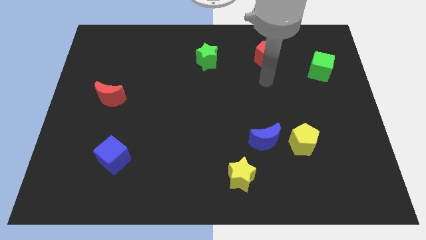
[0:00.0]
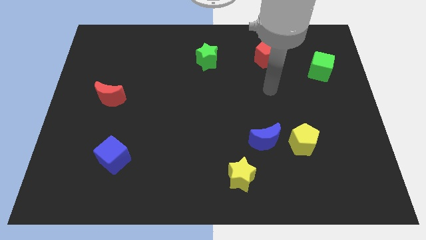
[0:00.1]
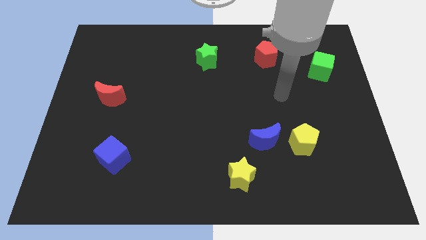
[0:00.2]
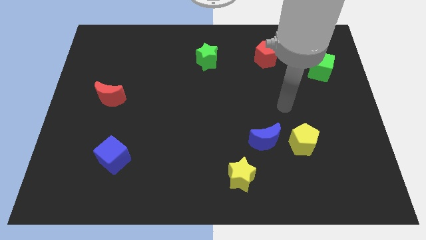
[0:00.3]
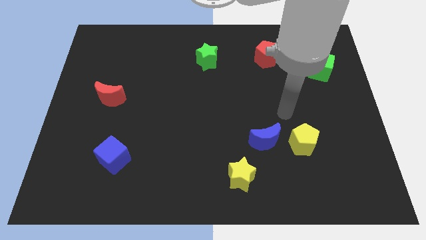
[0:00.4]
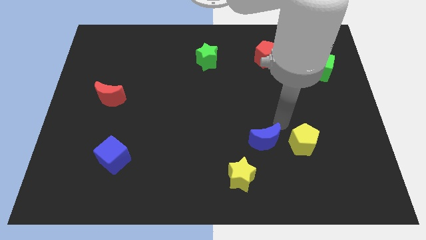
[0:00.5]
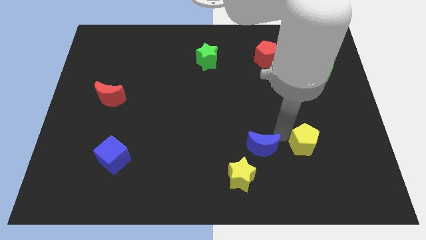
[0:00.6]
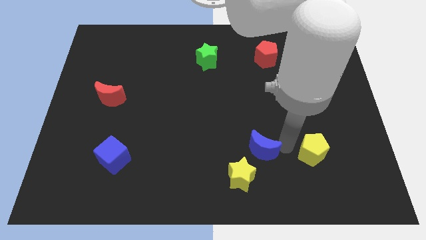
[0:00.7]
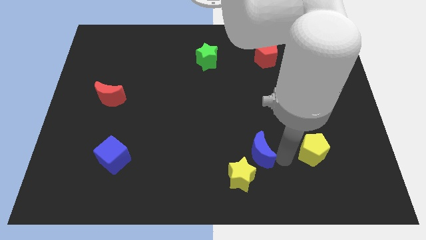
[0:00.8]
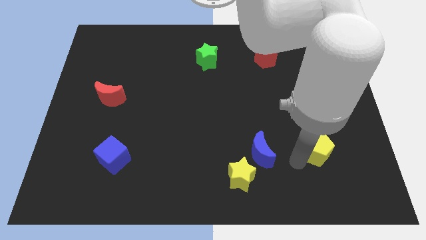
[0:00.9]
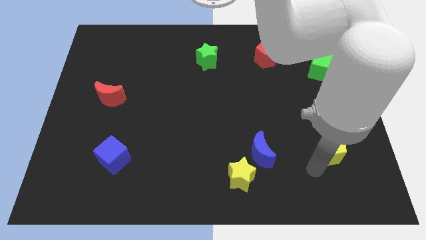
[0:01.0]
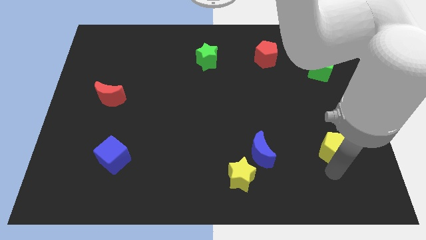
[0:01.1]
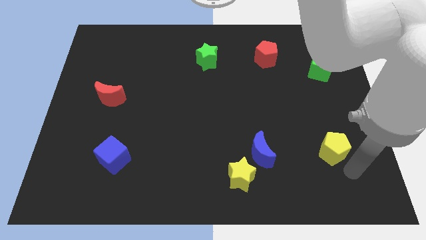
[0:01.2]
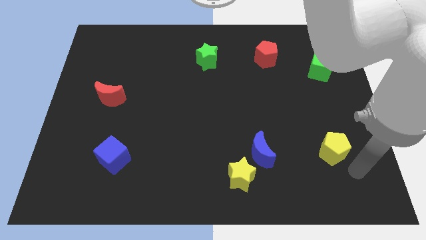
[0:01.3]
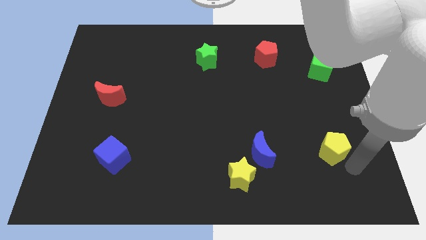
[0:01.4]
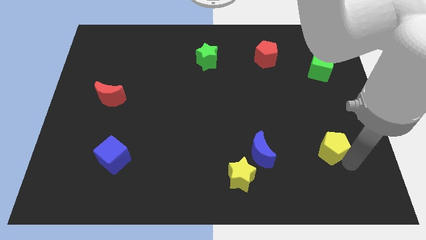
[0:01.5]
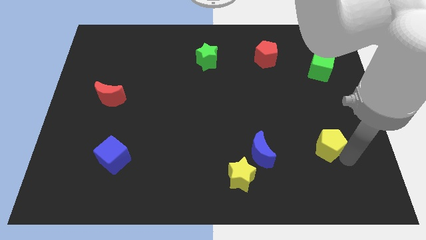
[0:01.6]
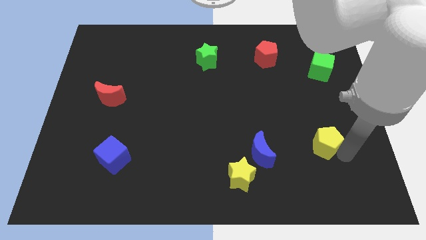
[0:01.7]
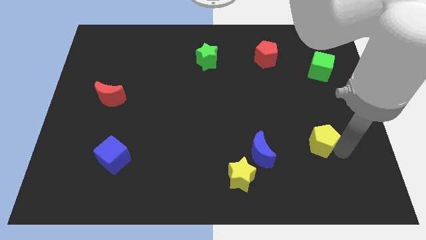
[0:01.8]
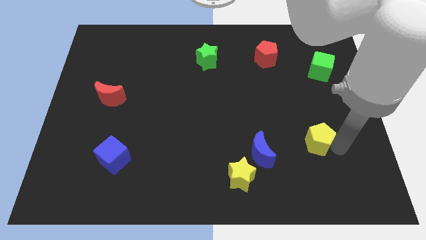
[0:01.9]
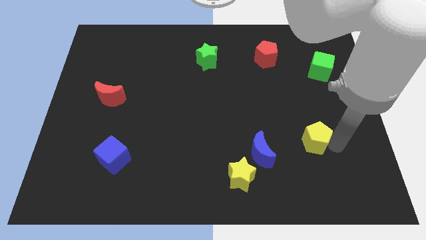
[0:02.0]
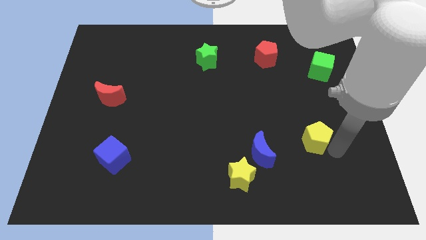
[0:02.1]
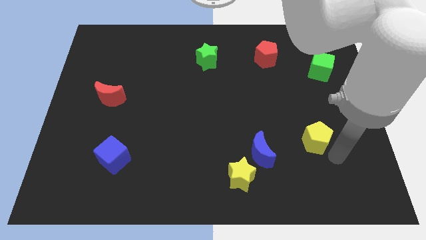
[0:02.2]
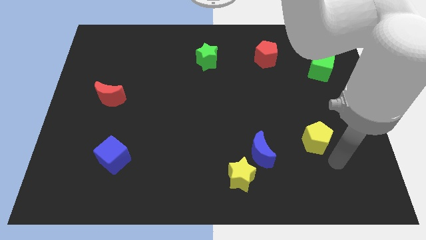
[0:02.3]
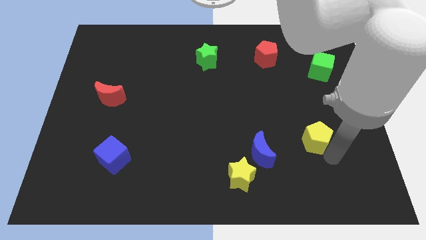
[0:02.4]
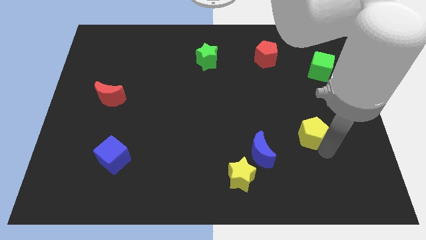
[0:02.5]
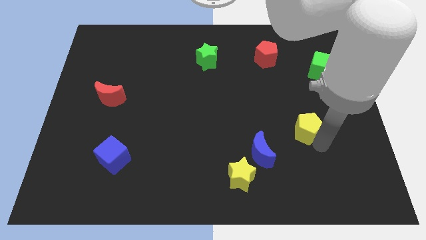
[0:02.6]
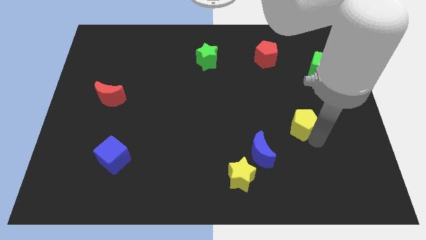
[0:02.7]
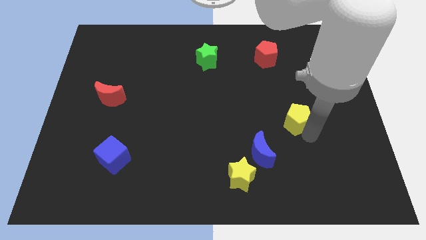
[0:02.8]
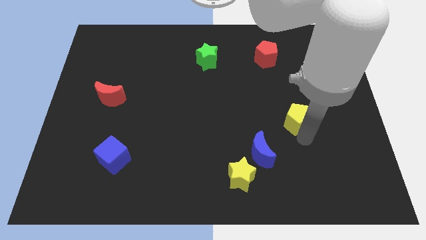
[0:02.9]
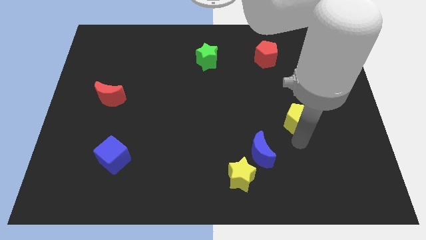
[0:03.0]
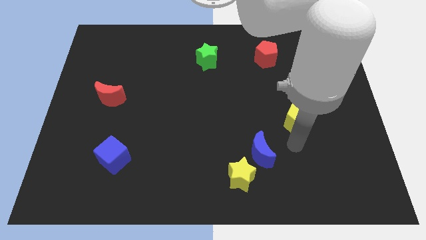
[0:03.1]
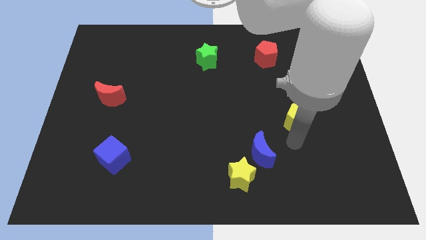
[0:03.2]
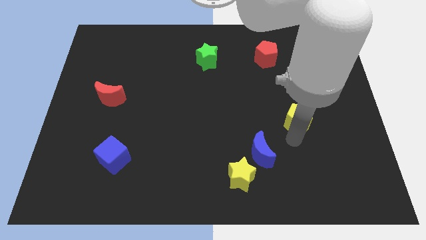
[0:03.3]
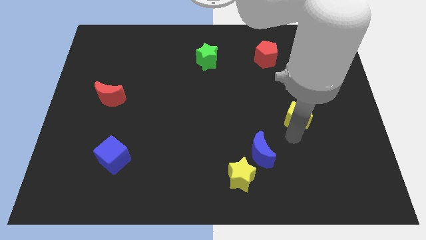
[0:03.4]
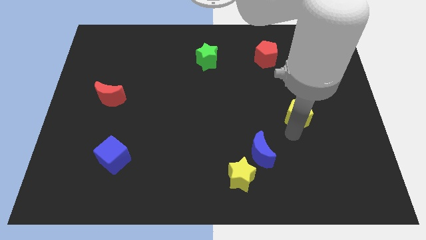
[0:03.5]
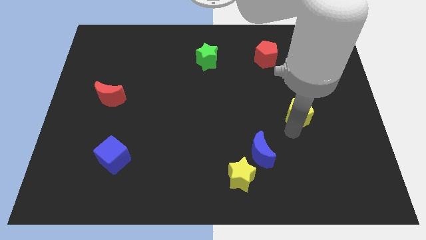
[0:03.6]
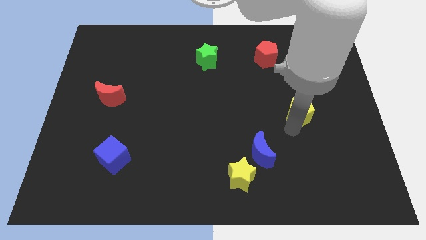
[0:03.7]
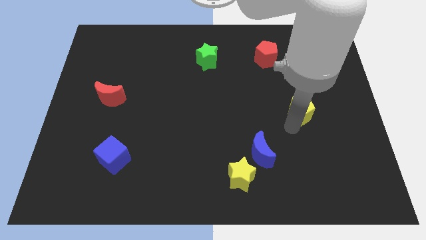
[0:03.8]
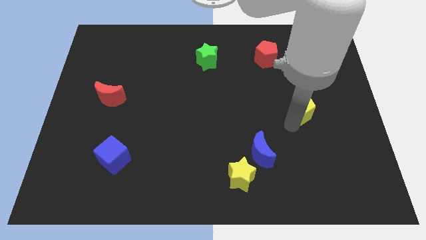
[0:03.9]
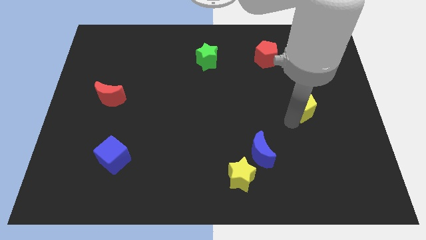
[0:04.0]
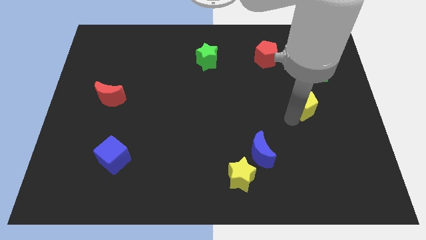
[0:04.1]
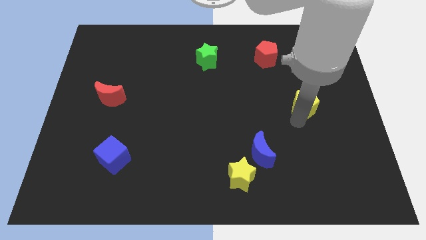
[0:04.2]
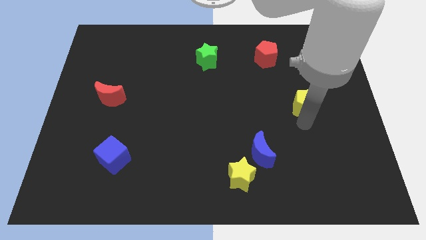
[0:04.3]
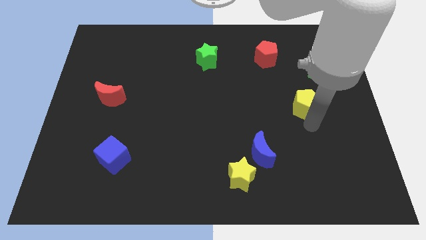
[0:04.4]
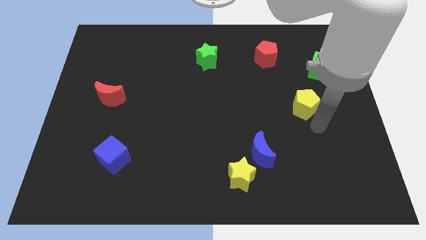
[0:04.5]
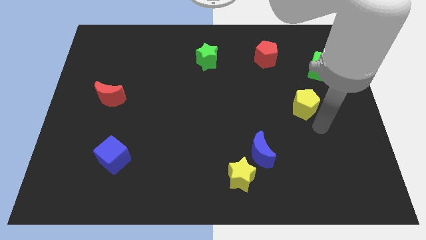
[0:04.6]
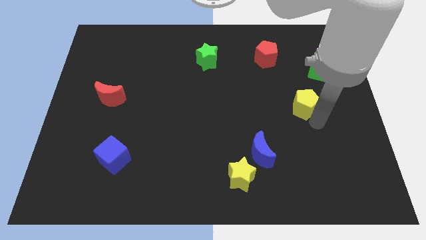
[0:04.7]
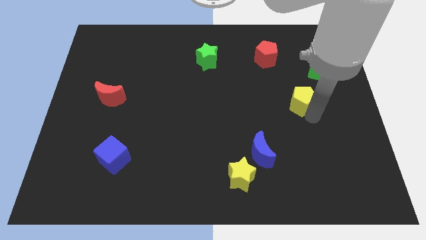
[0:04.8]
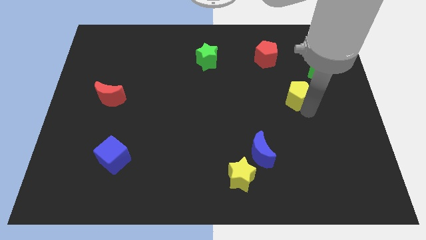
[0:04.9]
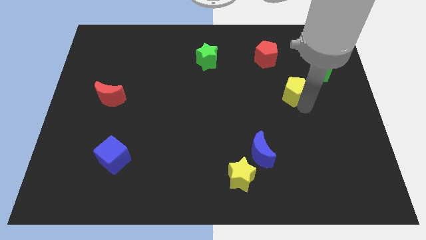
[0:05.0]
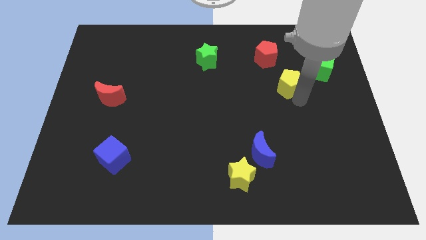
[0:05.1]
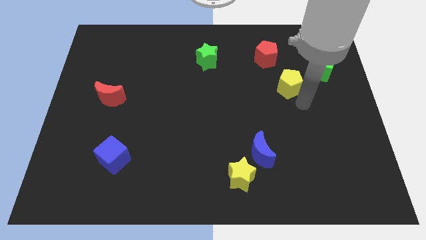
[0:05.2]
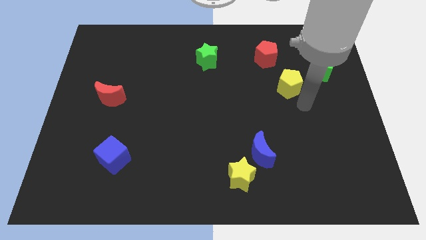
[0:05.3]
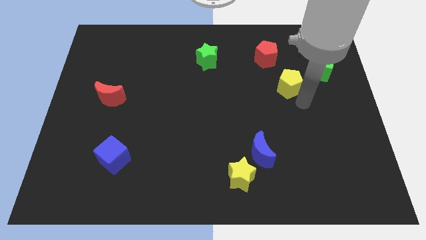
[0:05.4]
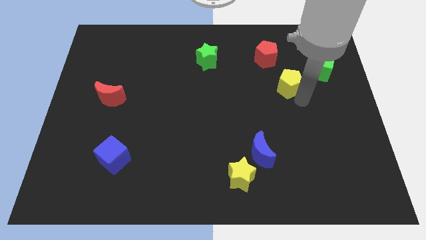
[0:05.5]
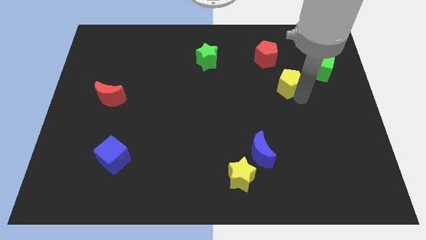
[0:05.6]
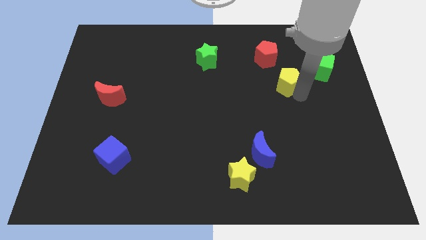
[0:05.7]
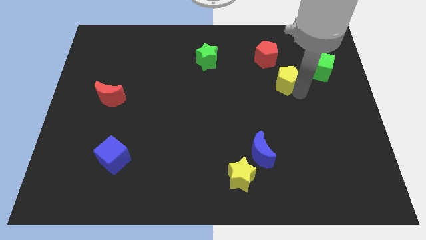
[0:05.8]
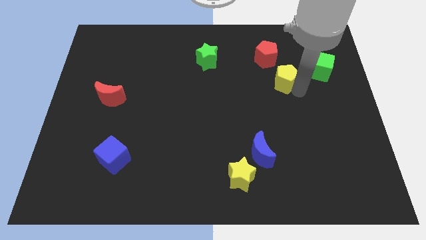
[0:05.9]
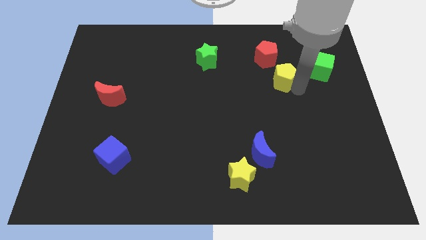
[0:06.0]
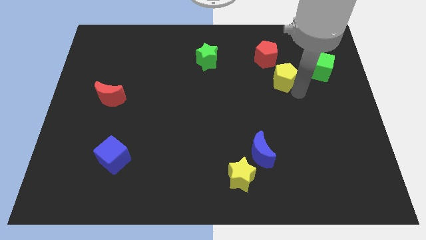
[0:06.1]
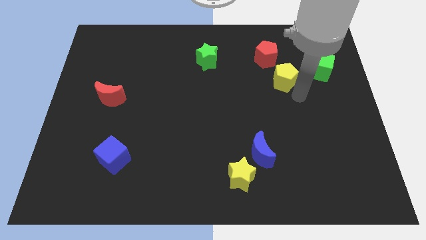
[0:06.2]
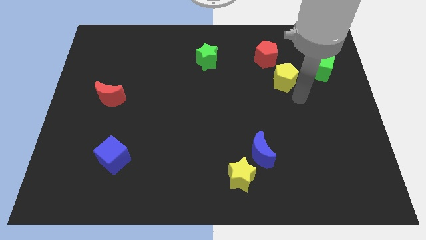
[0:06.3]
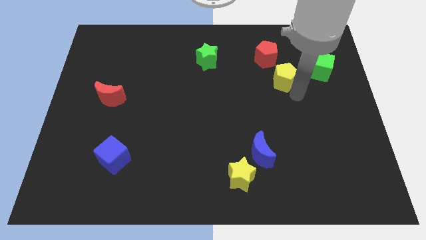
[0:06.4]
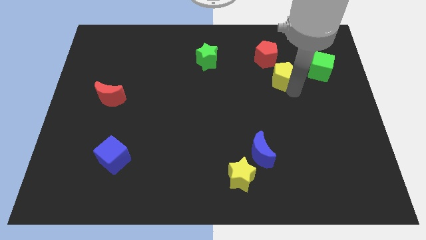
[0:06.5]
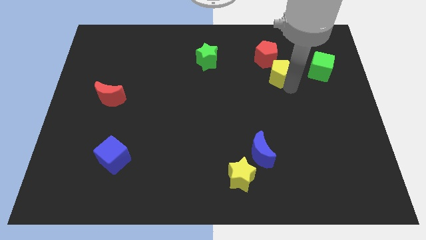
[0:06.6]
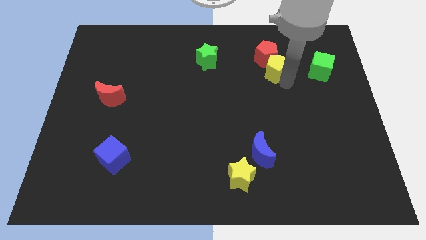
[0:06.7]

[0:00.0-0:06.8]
slide the yellow pentagon towards the red pentagon
